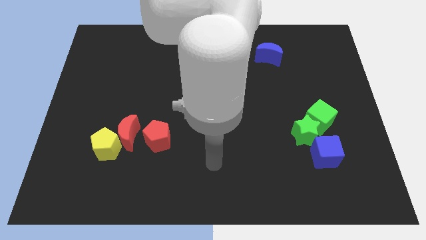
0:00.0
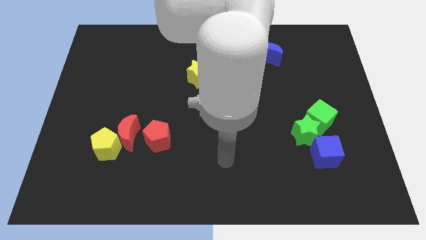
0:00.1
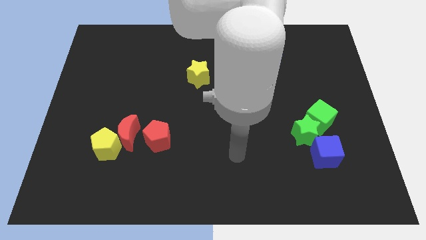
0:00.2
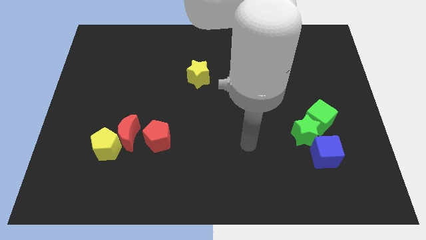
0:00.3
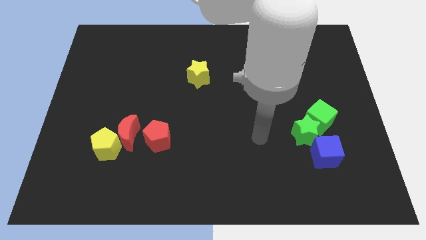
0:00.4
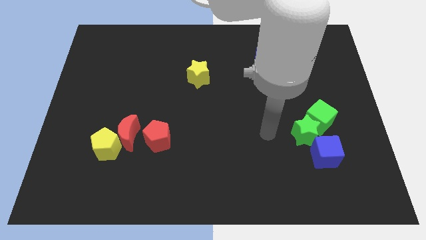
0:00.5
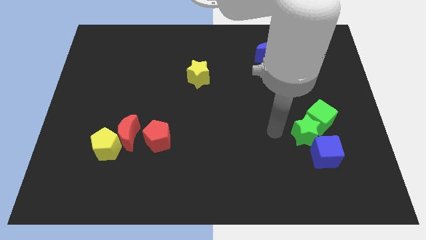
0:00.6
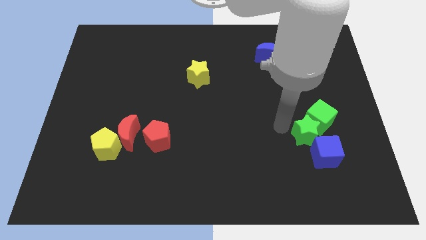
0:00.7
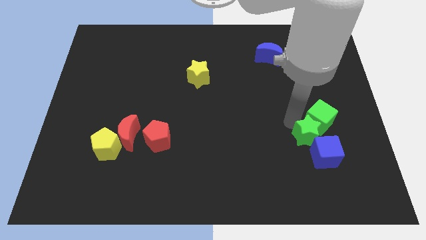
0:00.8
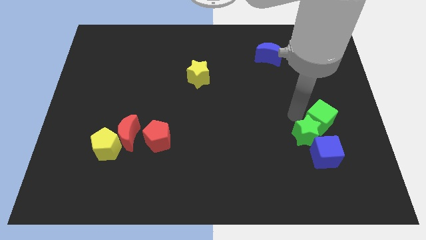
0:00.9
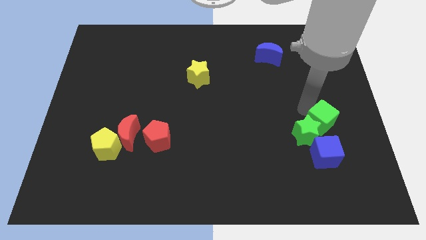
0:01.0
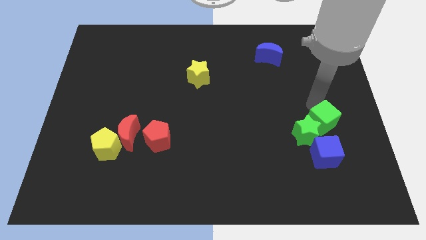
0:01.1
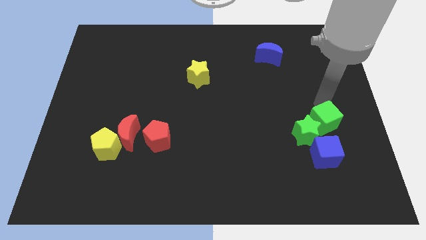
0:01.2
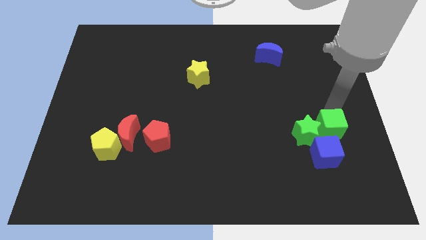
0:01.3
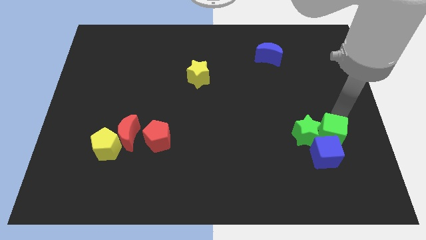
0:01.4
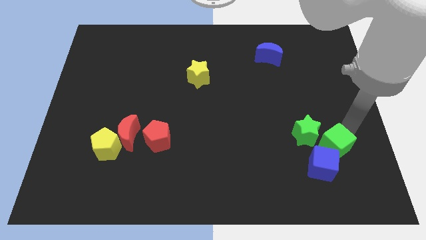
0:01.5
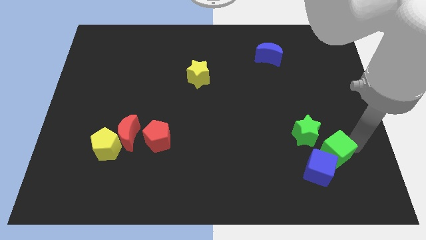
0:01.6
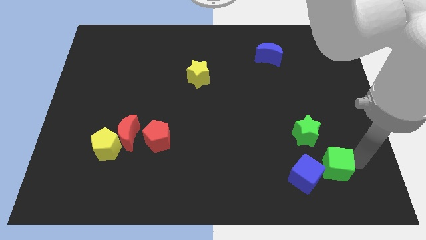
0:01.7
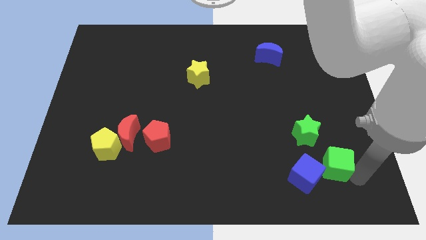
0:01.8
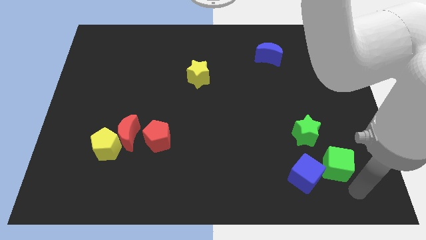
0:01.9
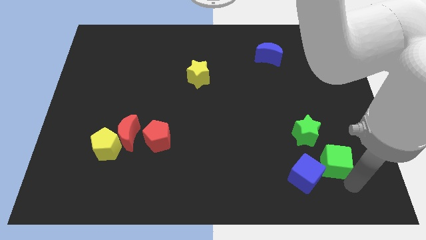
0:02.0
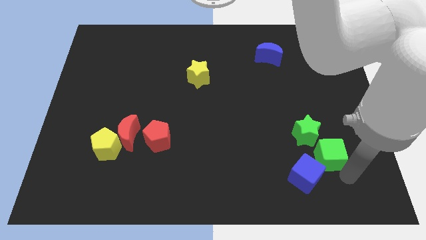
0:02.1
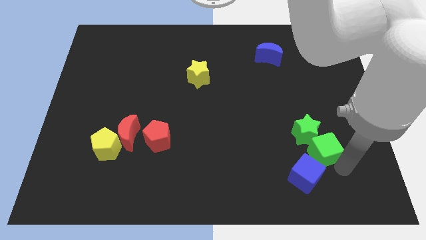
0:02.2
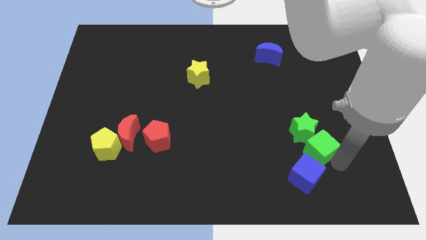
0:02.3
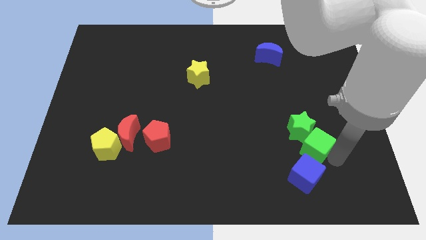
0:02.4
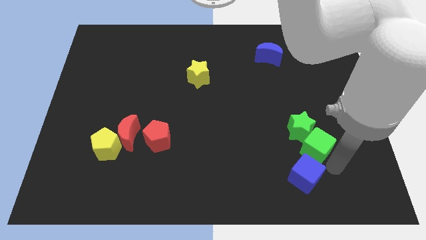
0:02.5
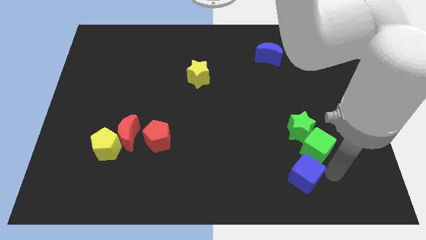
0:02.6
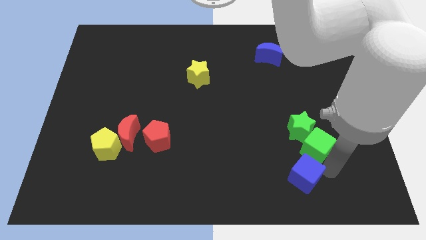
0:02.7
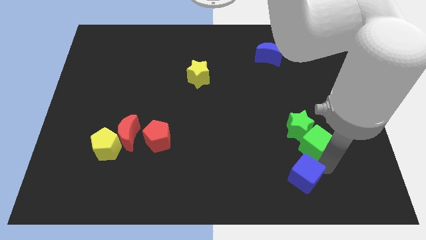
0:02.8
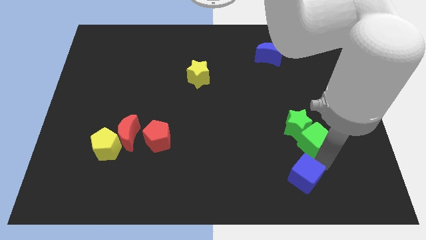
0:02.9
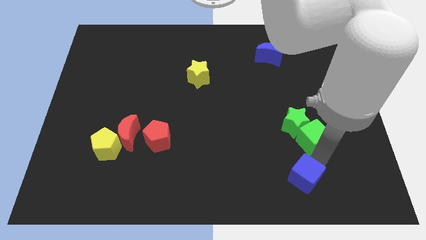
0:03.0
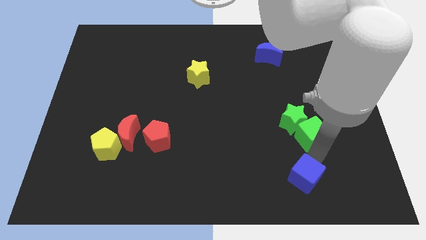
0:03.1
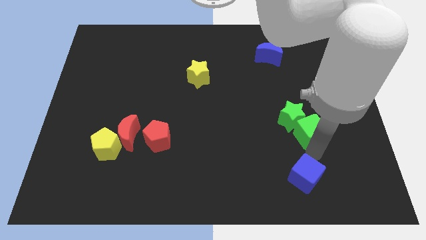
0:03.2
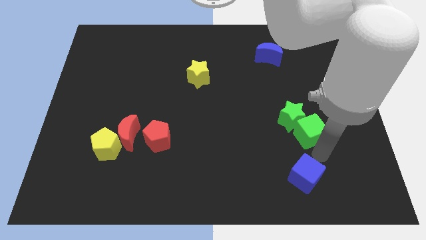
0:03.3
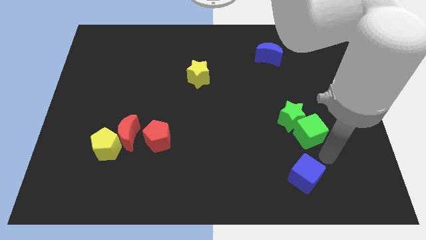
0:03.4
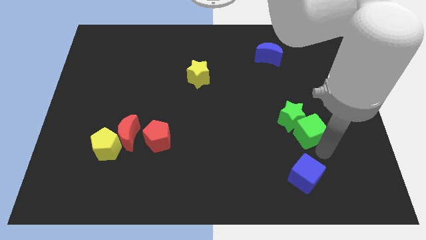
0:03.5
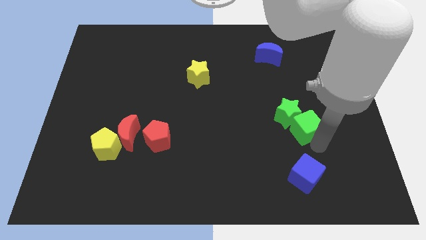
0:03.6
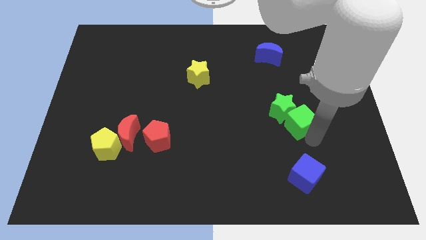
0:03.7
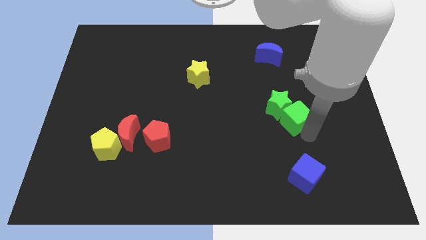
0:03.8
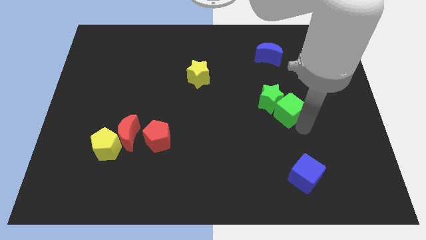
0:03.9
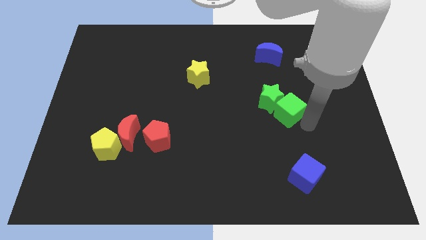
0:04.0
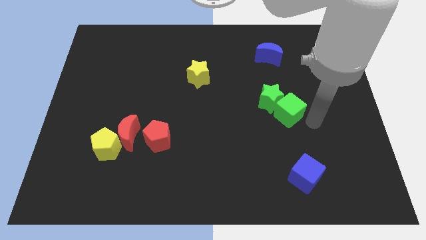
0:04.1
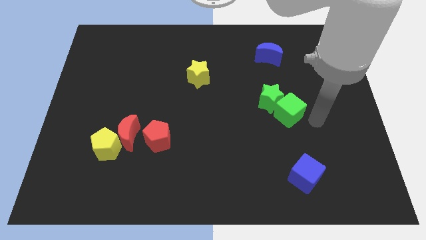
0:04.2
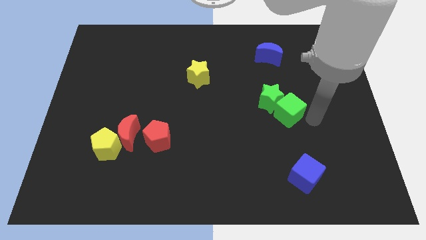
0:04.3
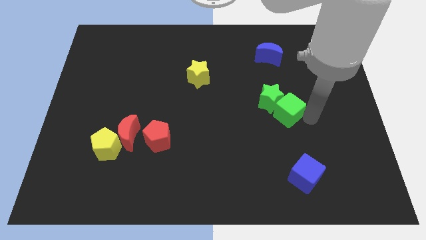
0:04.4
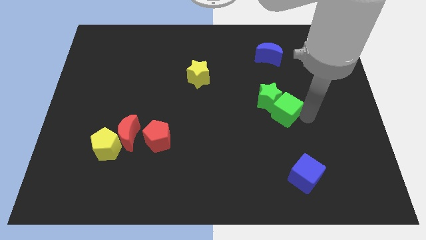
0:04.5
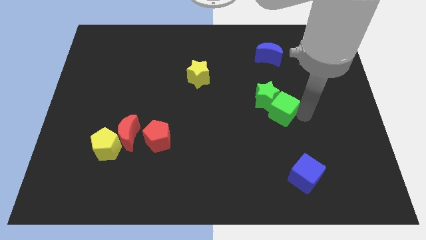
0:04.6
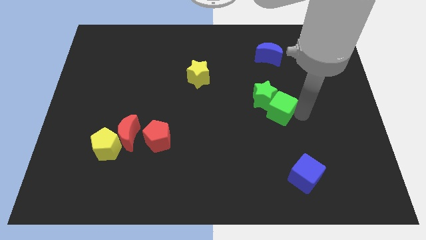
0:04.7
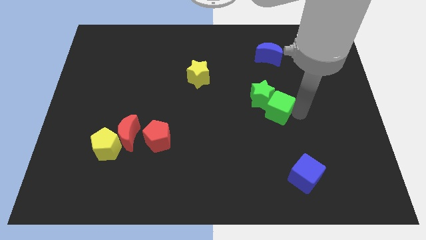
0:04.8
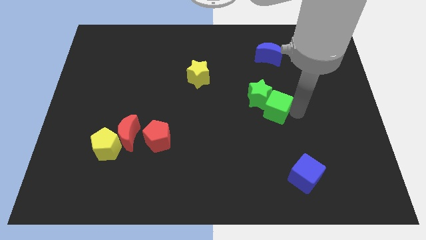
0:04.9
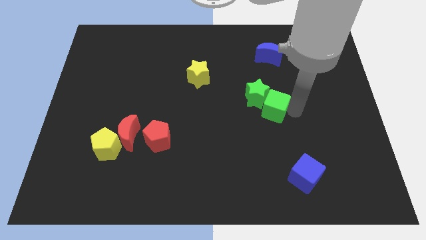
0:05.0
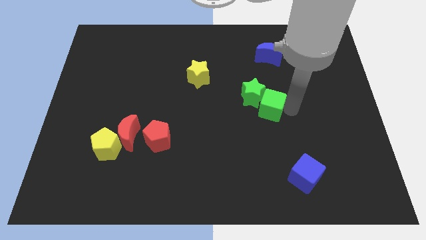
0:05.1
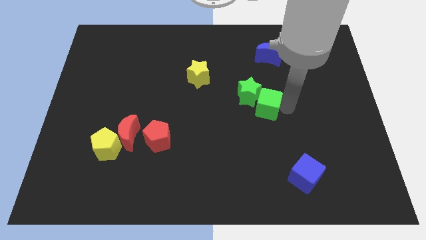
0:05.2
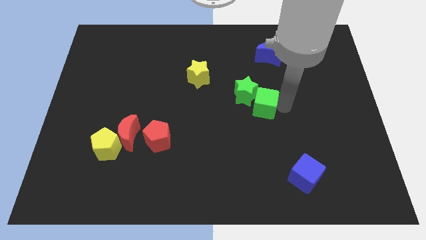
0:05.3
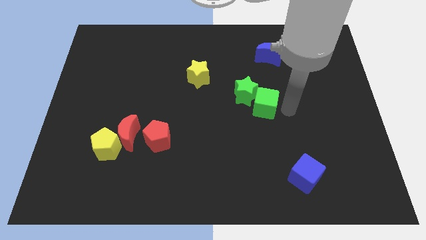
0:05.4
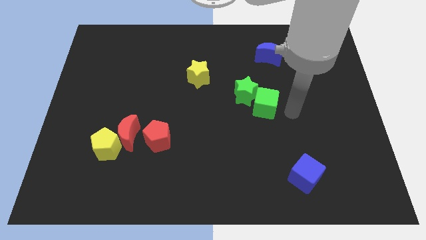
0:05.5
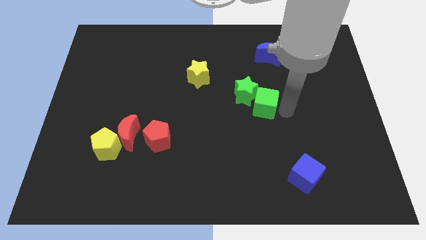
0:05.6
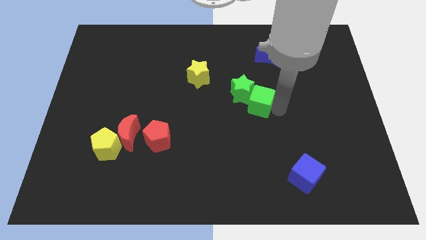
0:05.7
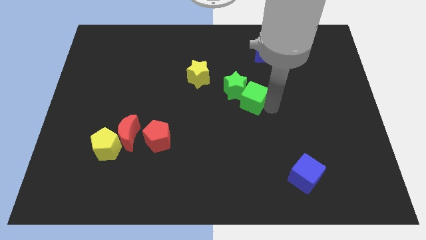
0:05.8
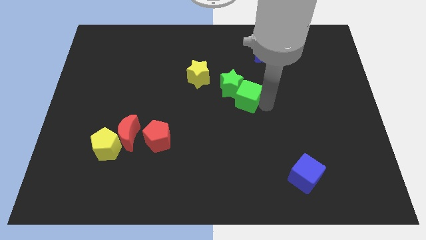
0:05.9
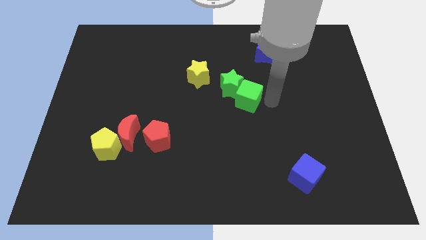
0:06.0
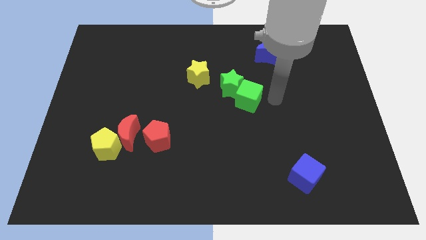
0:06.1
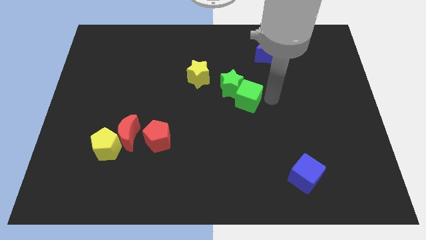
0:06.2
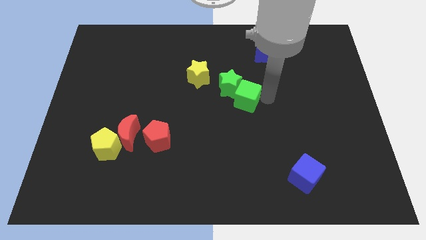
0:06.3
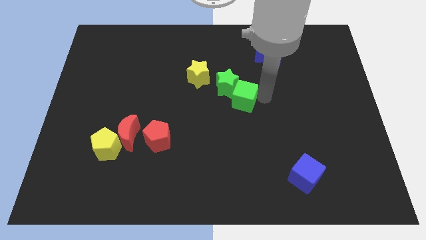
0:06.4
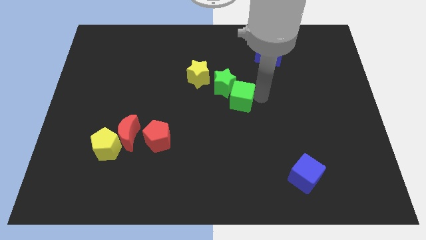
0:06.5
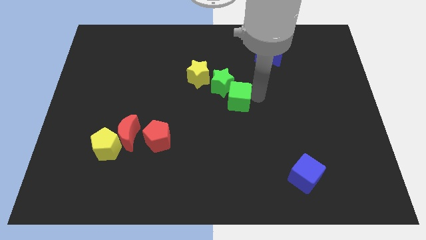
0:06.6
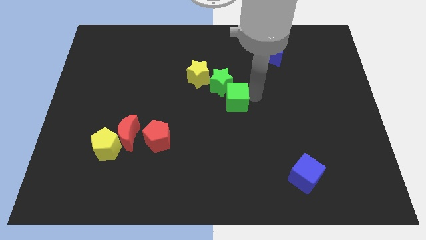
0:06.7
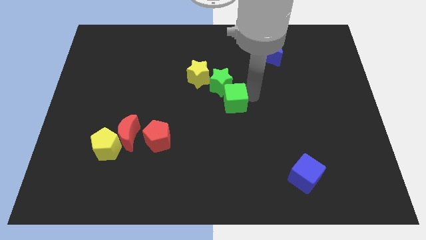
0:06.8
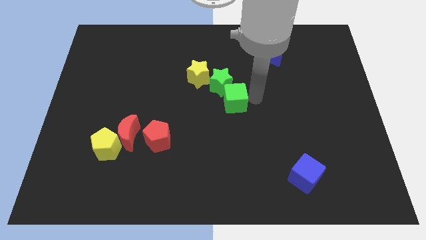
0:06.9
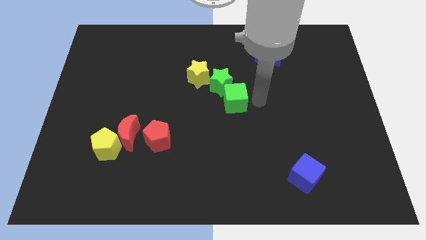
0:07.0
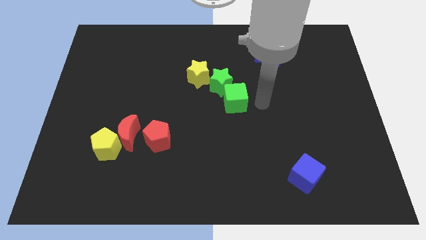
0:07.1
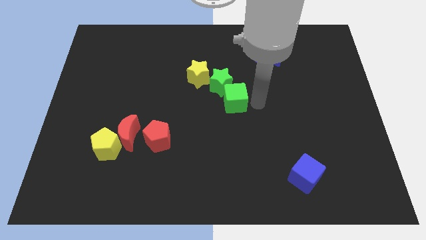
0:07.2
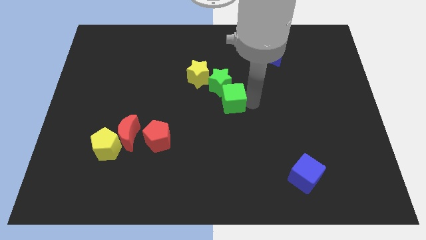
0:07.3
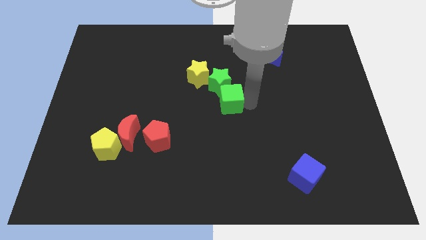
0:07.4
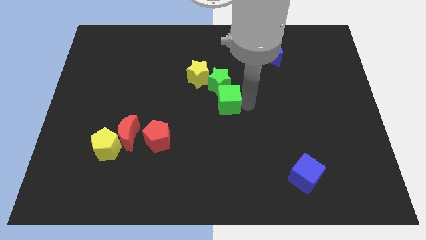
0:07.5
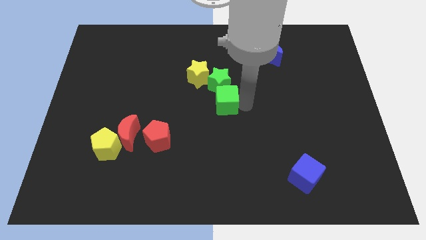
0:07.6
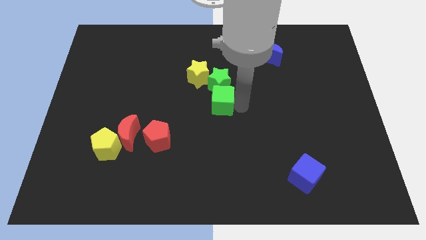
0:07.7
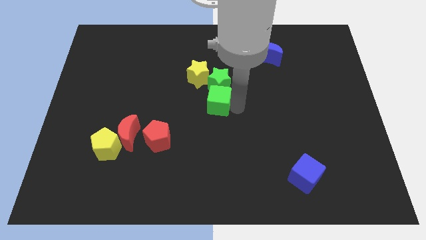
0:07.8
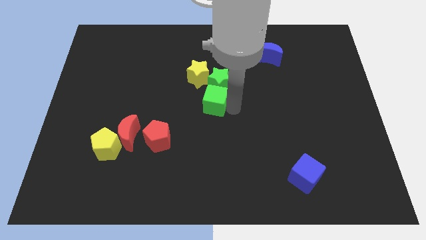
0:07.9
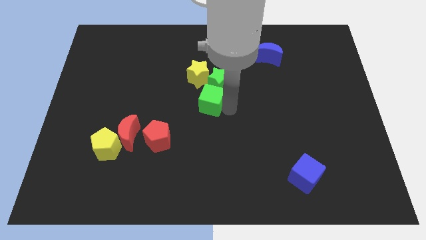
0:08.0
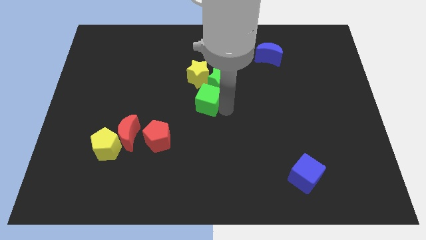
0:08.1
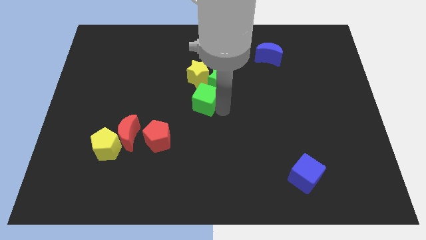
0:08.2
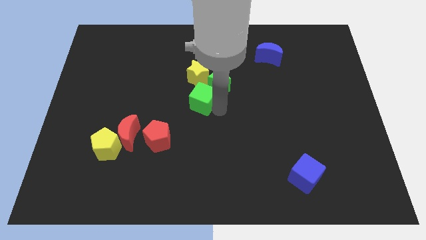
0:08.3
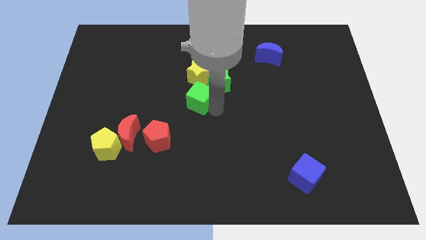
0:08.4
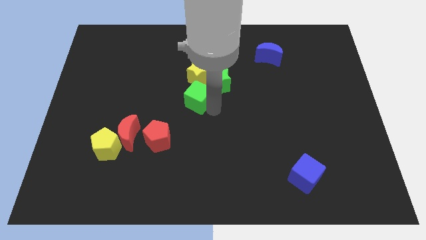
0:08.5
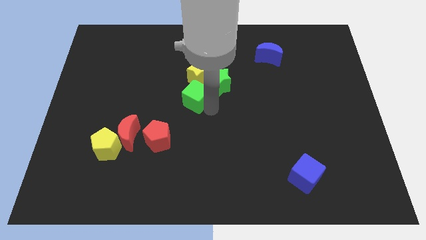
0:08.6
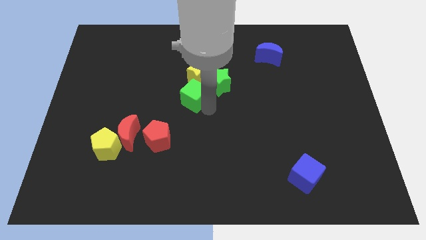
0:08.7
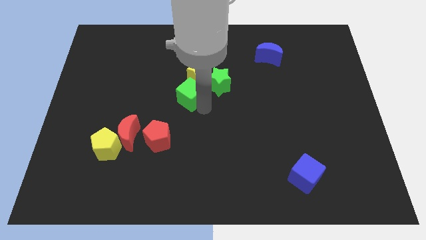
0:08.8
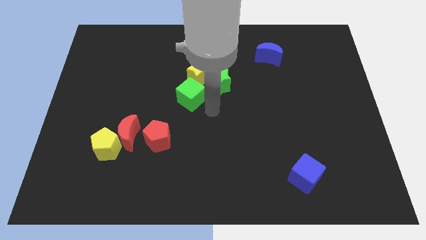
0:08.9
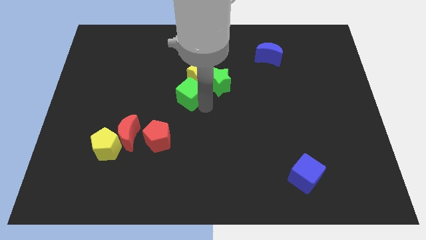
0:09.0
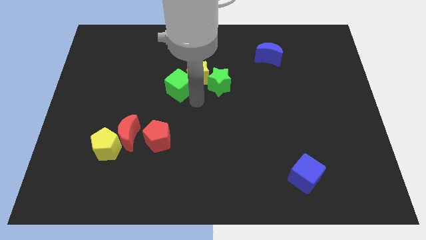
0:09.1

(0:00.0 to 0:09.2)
push the green cube just left of the yellow star
